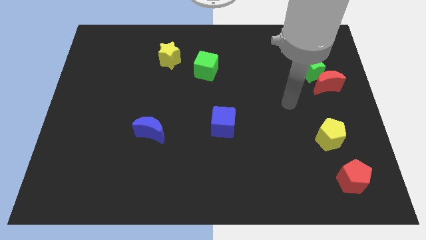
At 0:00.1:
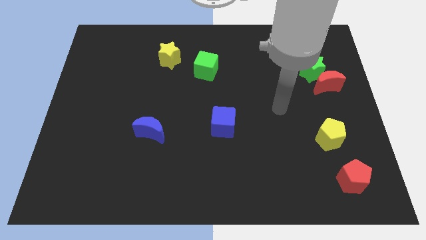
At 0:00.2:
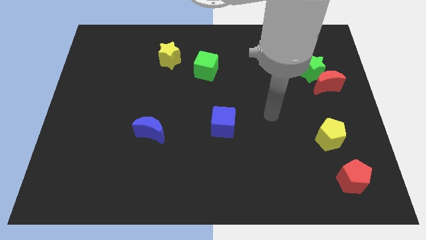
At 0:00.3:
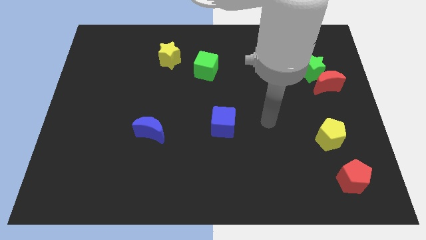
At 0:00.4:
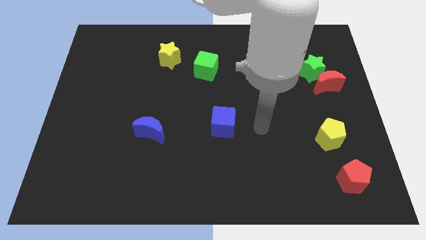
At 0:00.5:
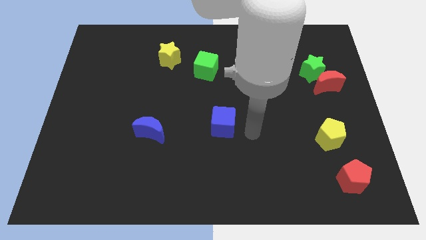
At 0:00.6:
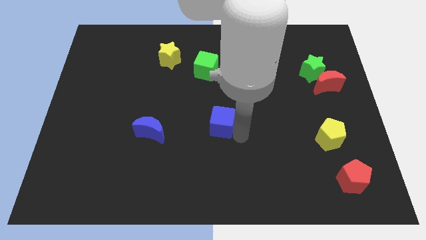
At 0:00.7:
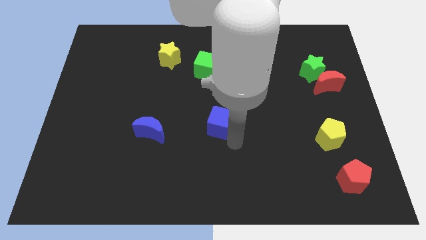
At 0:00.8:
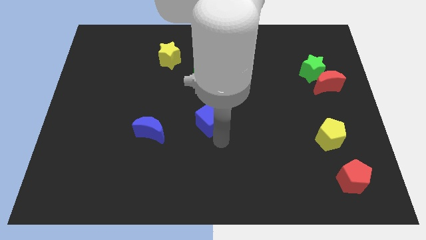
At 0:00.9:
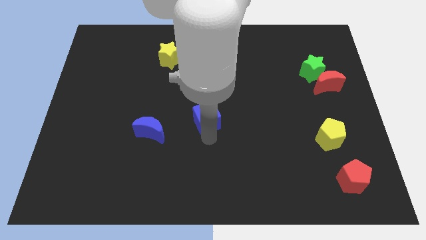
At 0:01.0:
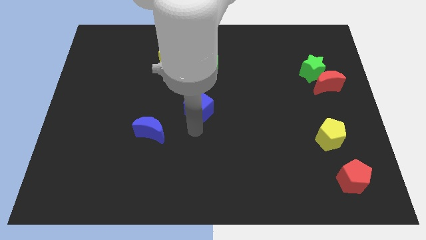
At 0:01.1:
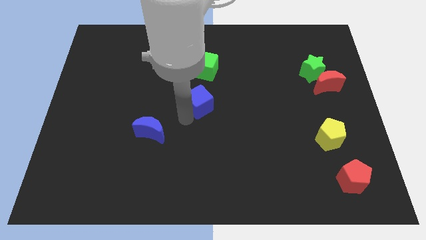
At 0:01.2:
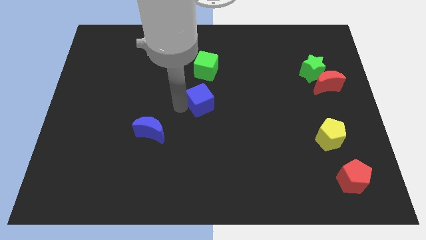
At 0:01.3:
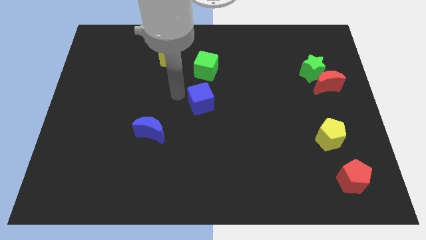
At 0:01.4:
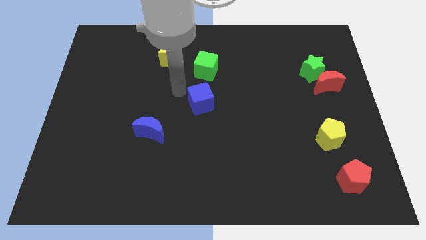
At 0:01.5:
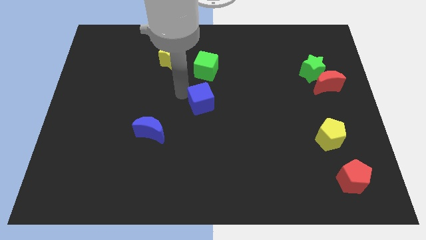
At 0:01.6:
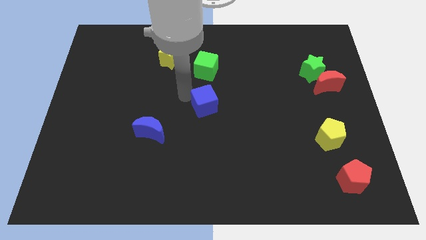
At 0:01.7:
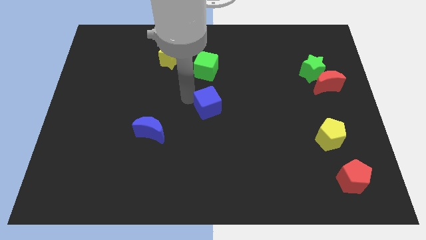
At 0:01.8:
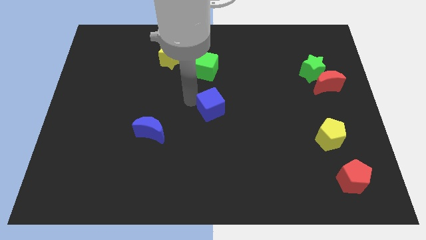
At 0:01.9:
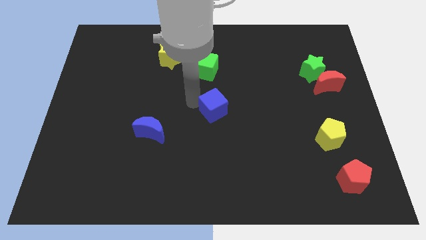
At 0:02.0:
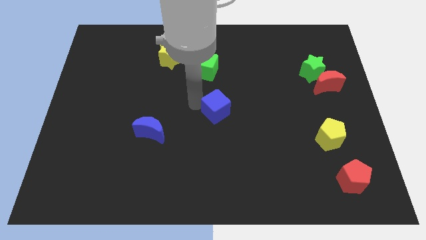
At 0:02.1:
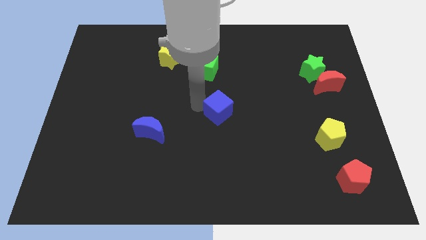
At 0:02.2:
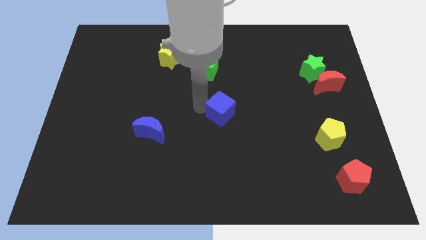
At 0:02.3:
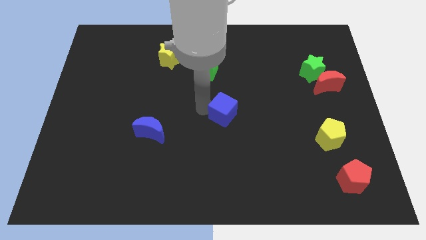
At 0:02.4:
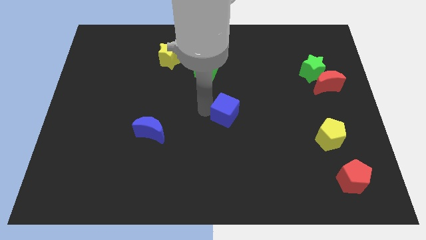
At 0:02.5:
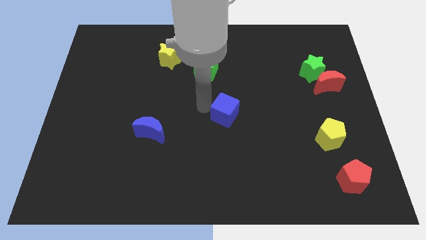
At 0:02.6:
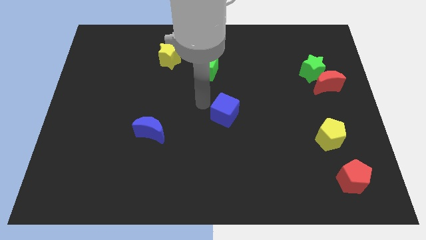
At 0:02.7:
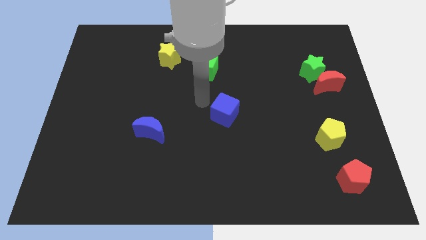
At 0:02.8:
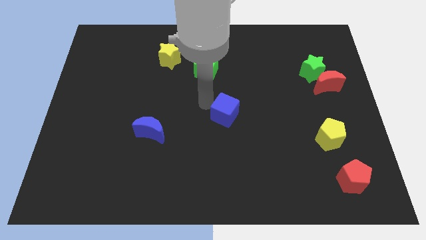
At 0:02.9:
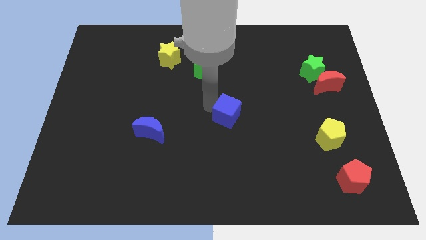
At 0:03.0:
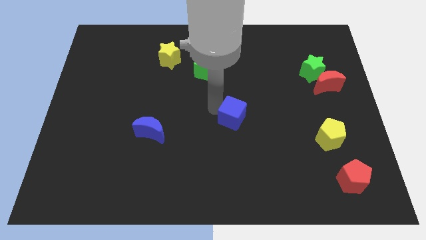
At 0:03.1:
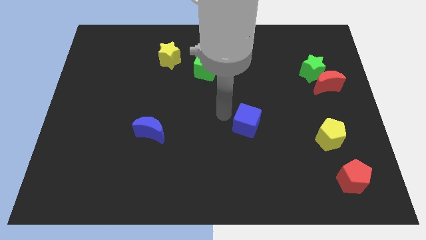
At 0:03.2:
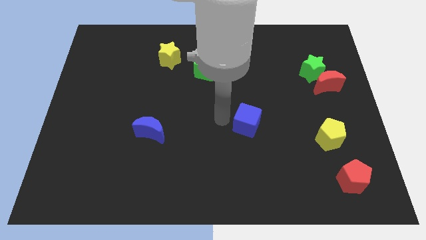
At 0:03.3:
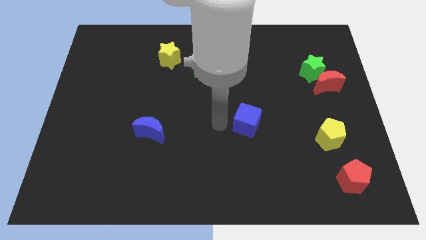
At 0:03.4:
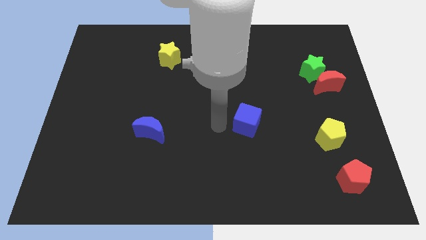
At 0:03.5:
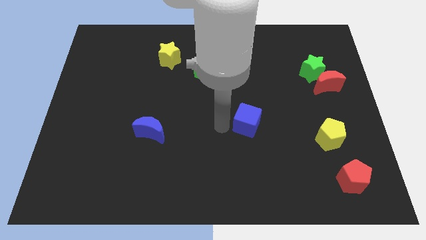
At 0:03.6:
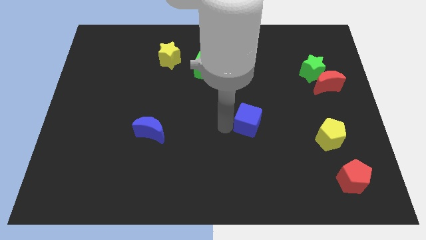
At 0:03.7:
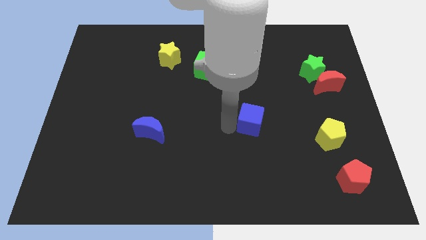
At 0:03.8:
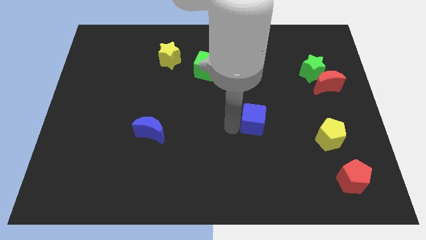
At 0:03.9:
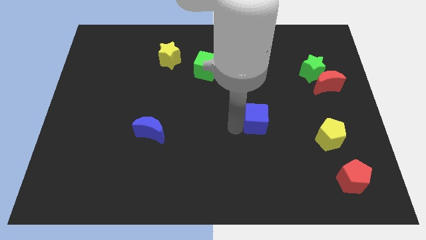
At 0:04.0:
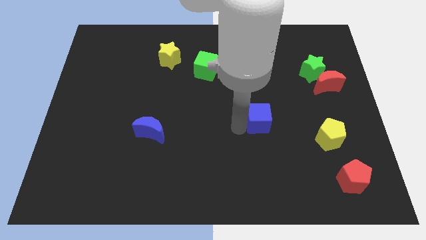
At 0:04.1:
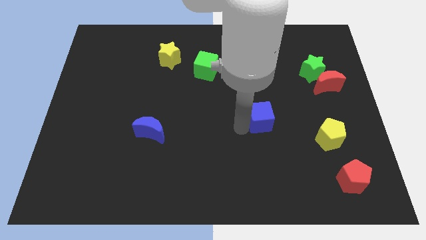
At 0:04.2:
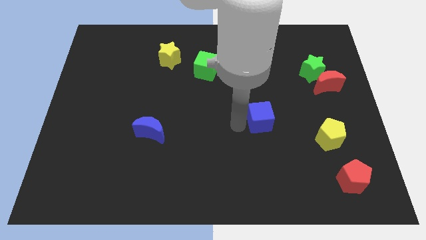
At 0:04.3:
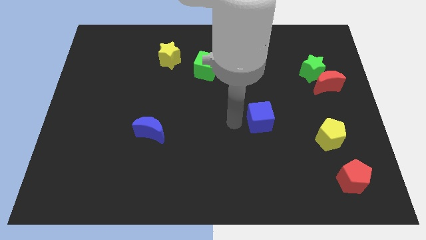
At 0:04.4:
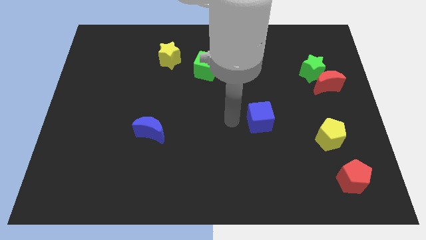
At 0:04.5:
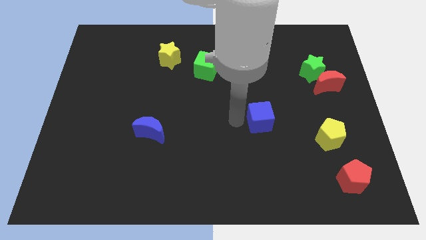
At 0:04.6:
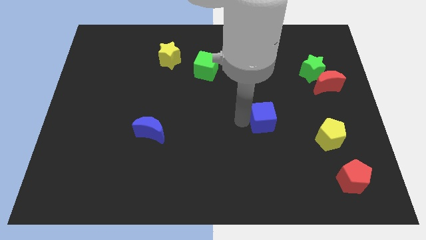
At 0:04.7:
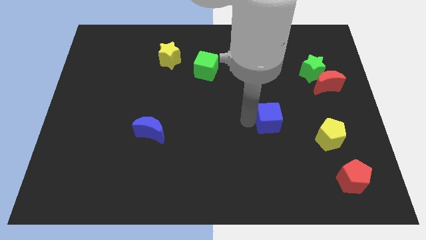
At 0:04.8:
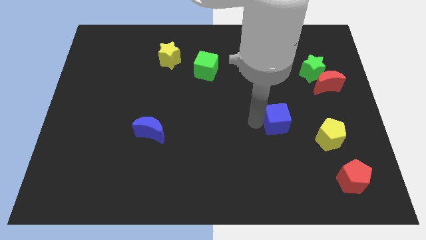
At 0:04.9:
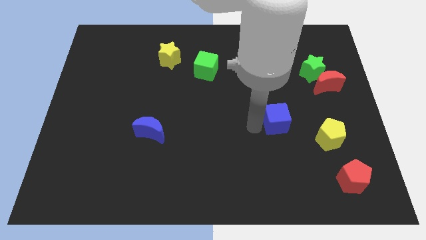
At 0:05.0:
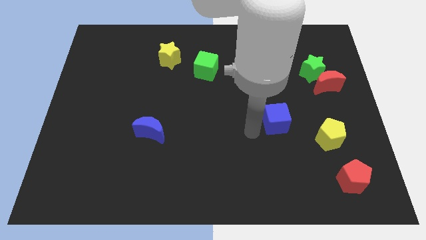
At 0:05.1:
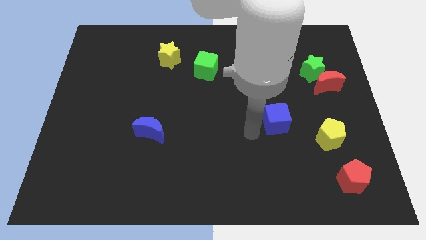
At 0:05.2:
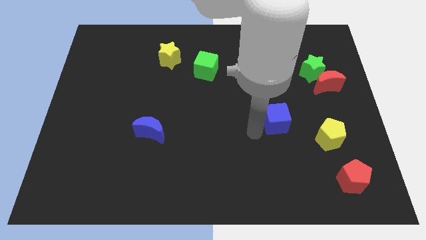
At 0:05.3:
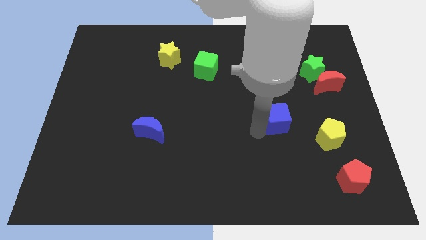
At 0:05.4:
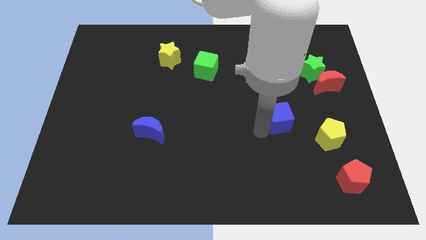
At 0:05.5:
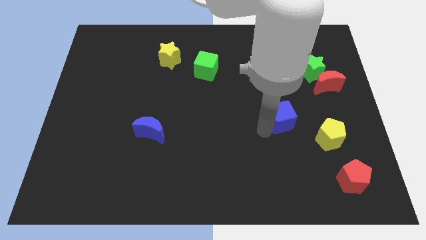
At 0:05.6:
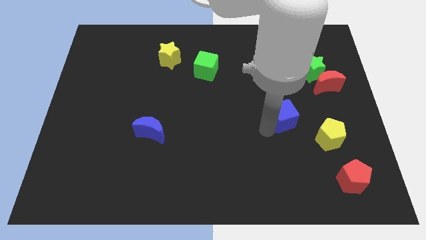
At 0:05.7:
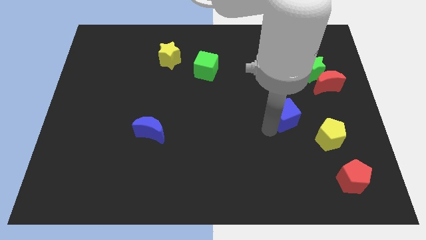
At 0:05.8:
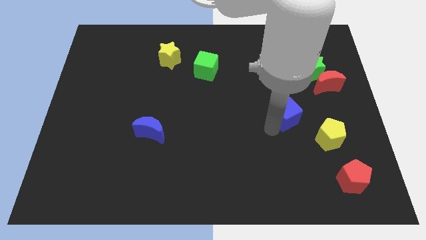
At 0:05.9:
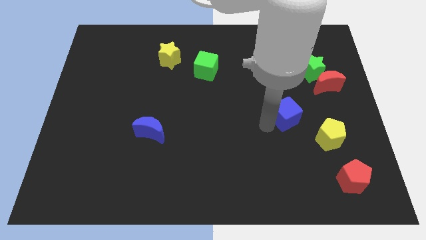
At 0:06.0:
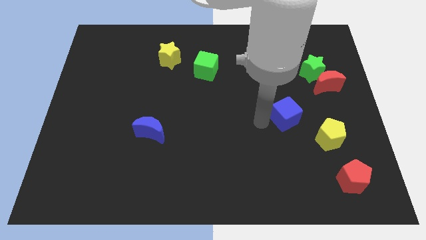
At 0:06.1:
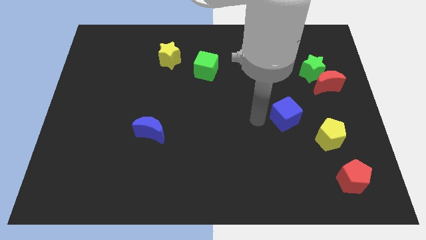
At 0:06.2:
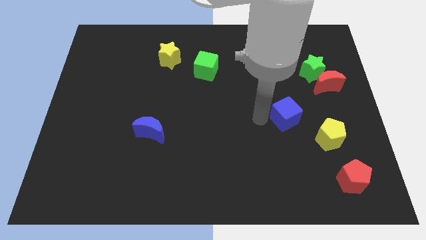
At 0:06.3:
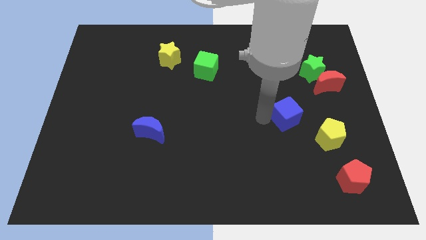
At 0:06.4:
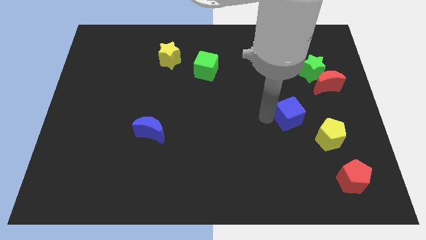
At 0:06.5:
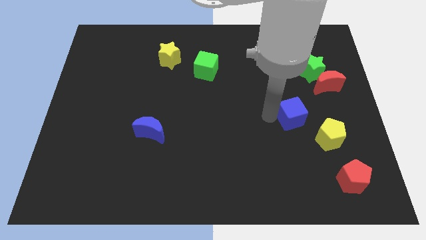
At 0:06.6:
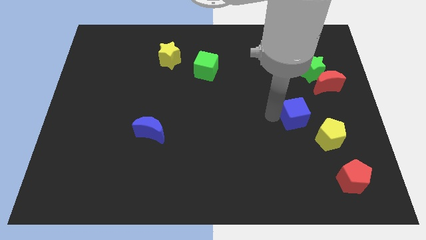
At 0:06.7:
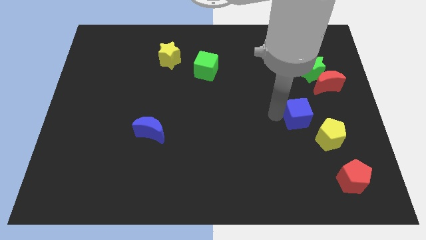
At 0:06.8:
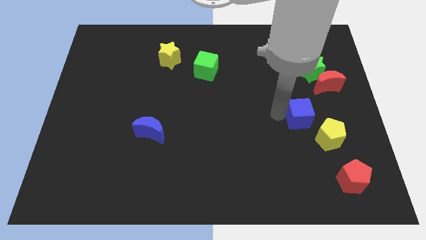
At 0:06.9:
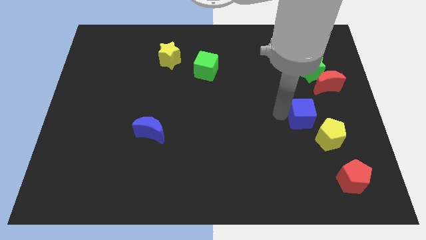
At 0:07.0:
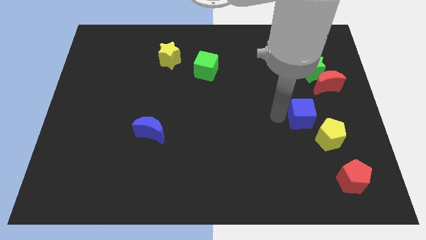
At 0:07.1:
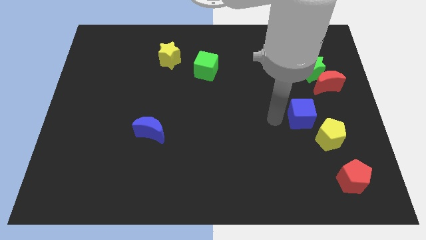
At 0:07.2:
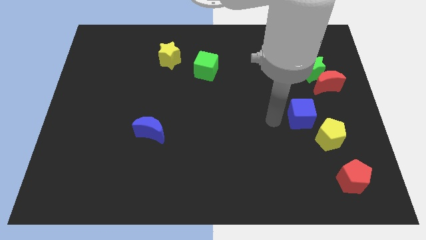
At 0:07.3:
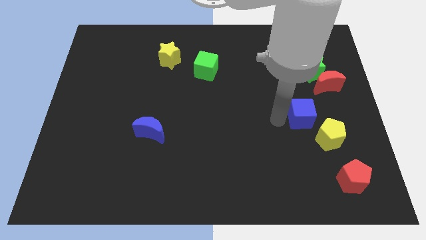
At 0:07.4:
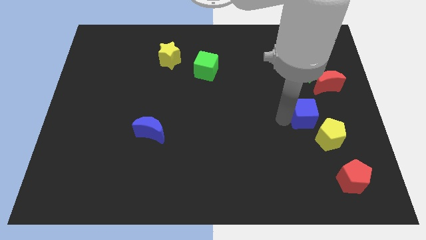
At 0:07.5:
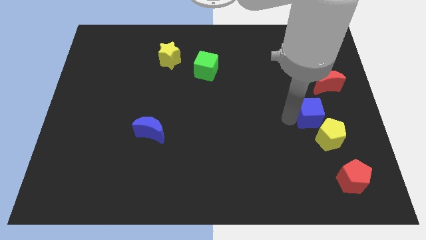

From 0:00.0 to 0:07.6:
slide the blue cube to the top of the yellow pentagon
